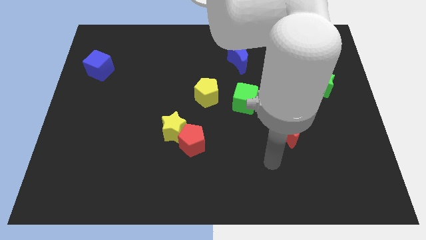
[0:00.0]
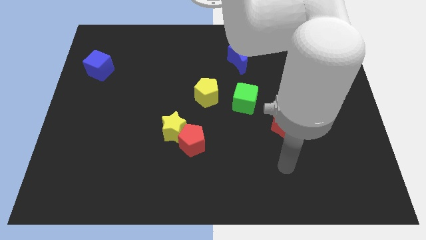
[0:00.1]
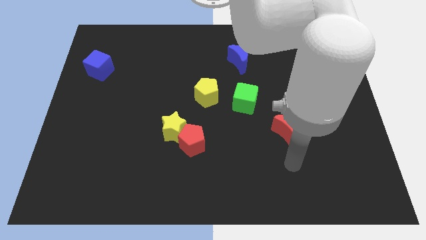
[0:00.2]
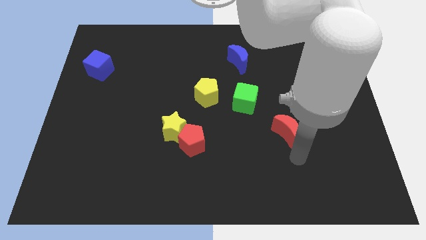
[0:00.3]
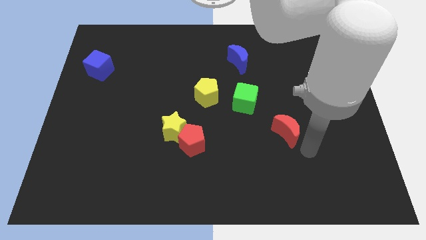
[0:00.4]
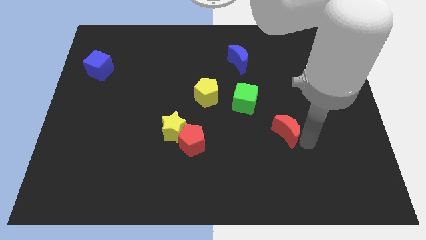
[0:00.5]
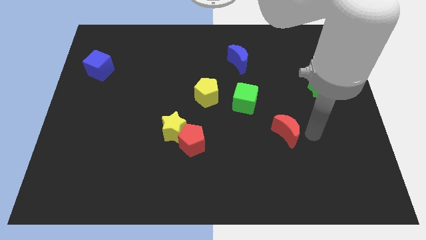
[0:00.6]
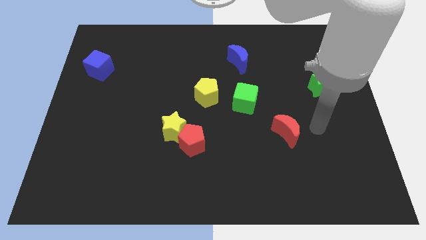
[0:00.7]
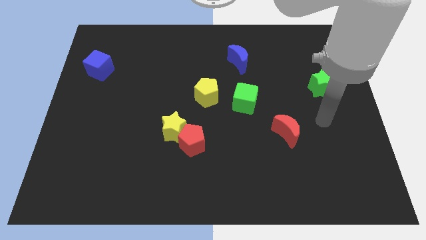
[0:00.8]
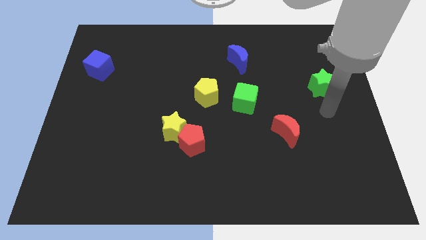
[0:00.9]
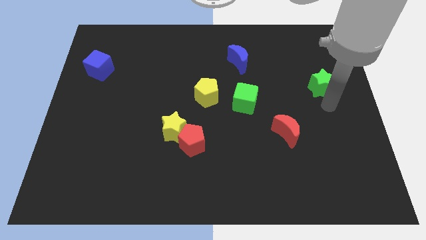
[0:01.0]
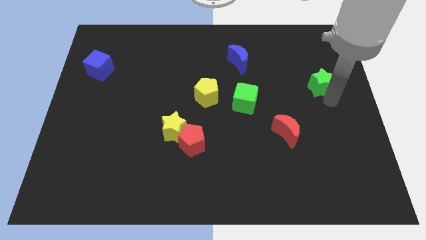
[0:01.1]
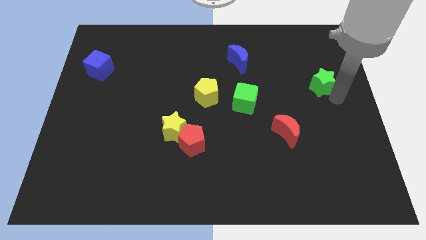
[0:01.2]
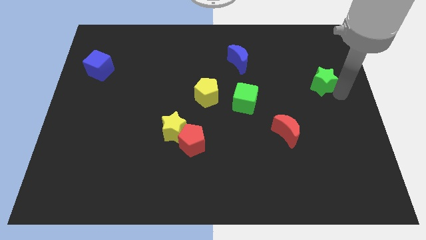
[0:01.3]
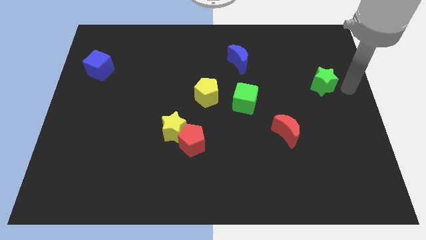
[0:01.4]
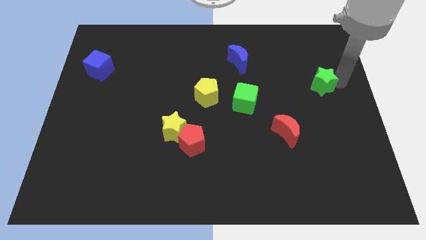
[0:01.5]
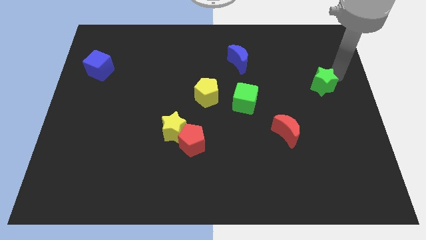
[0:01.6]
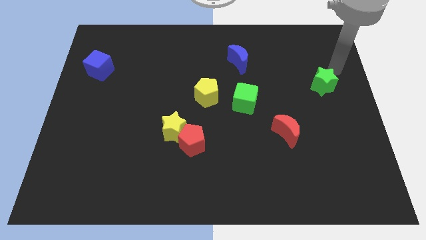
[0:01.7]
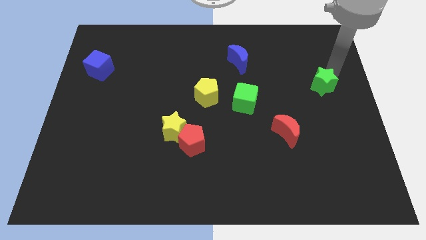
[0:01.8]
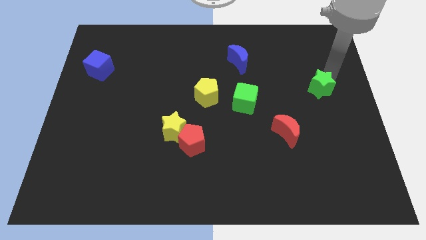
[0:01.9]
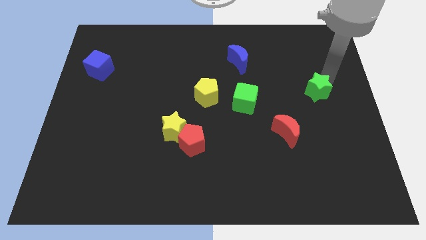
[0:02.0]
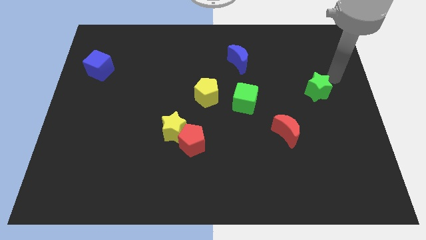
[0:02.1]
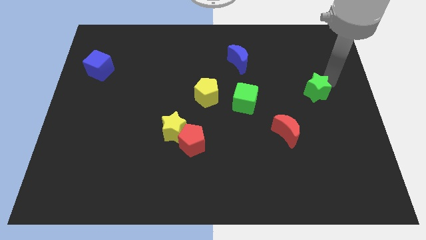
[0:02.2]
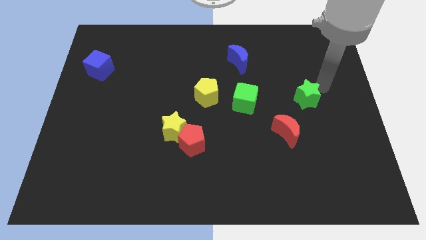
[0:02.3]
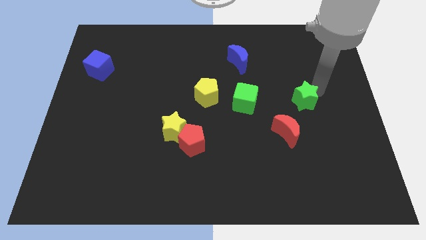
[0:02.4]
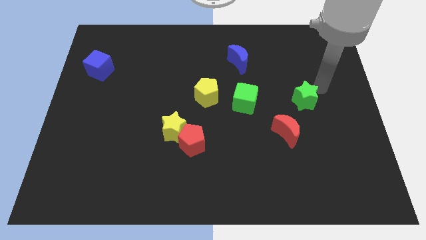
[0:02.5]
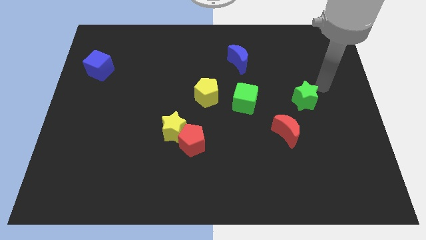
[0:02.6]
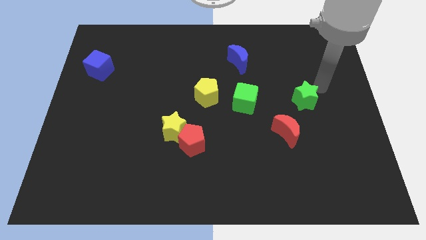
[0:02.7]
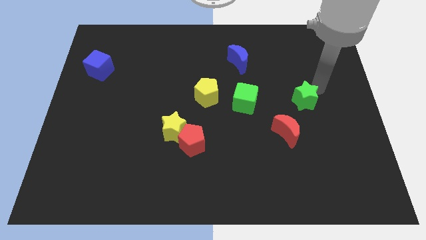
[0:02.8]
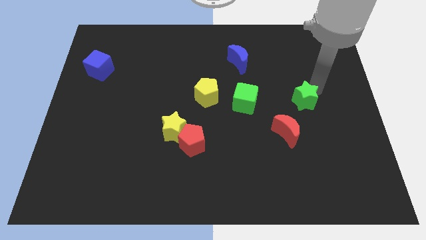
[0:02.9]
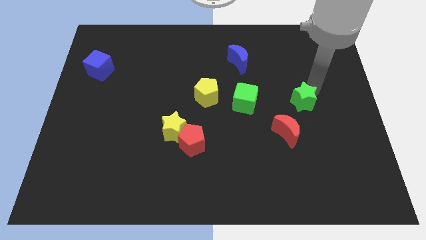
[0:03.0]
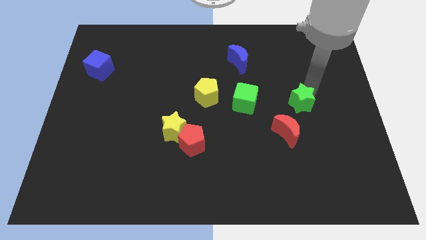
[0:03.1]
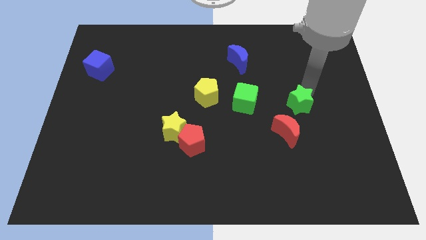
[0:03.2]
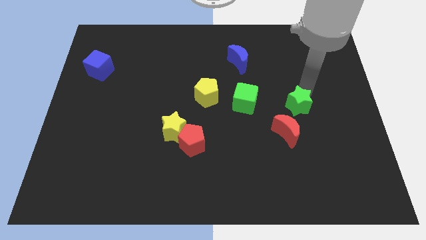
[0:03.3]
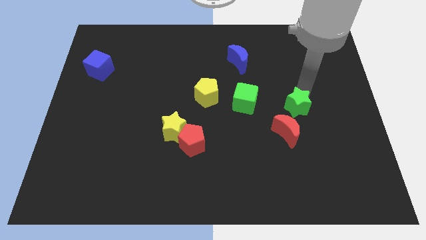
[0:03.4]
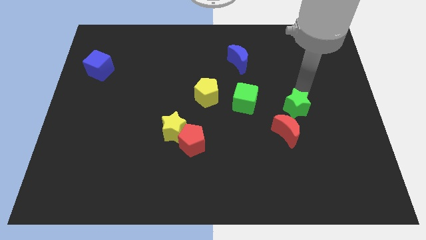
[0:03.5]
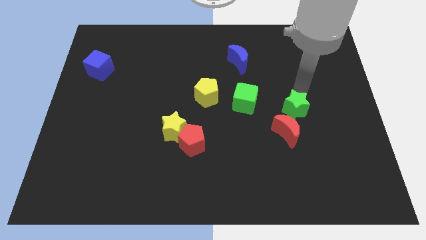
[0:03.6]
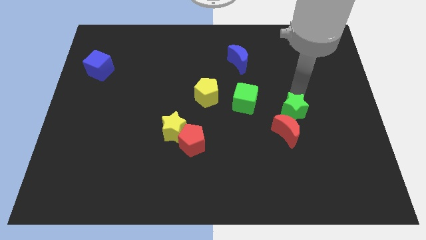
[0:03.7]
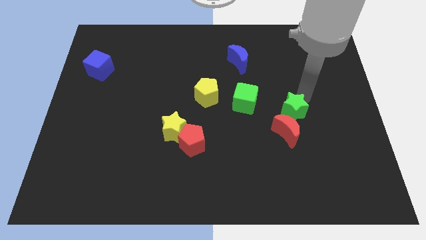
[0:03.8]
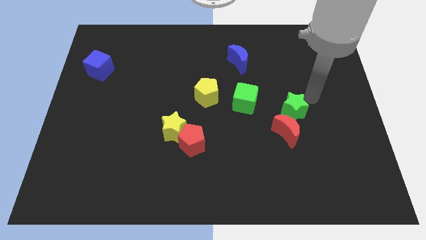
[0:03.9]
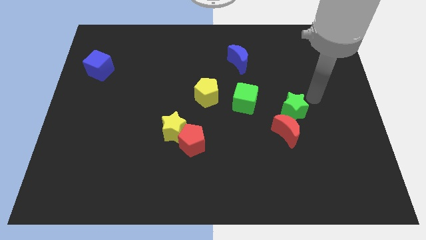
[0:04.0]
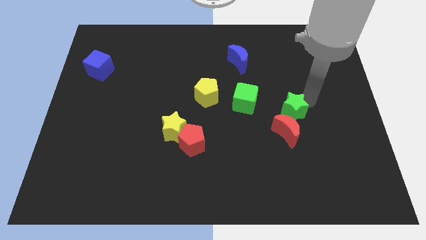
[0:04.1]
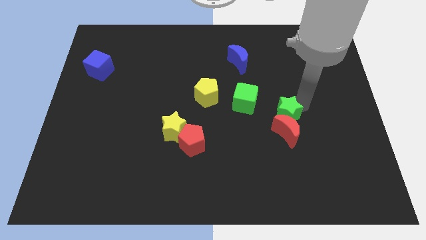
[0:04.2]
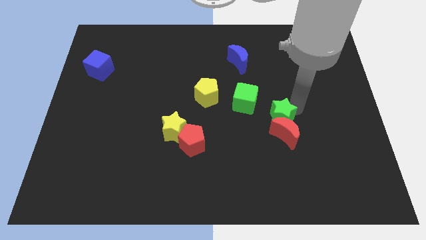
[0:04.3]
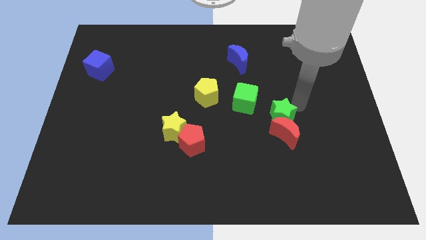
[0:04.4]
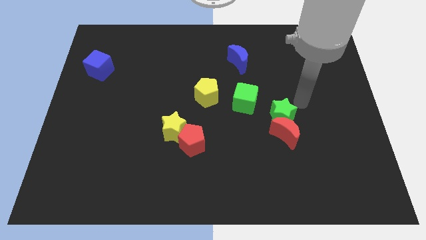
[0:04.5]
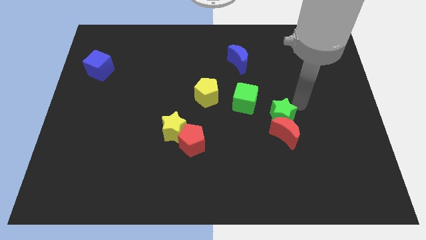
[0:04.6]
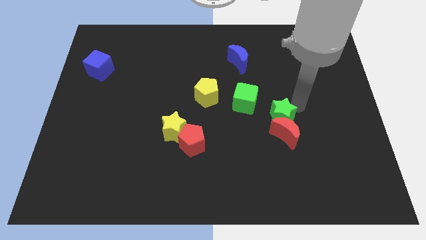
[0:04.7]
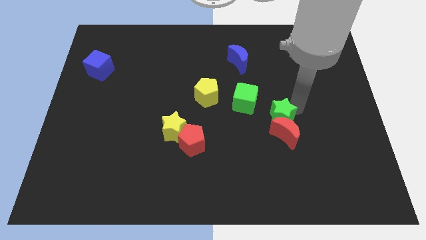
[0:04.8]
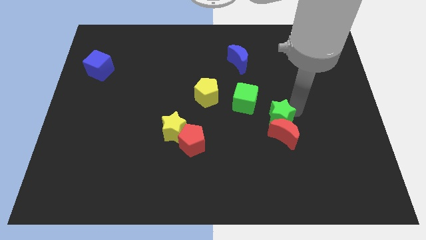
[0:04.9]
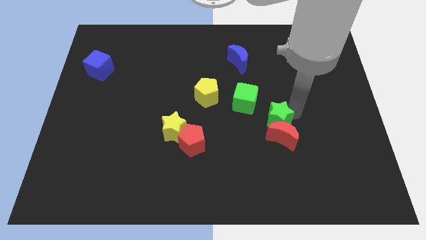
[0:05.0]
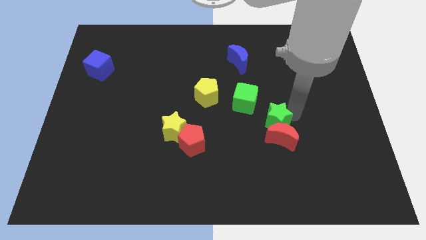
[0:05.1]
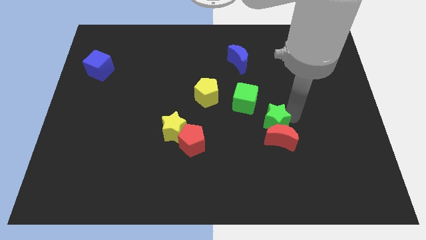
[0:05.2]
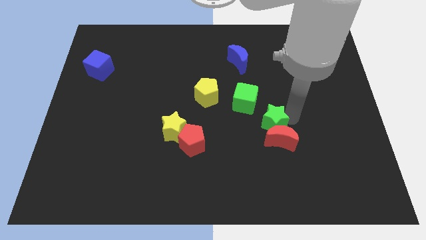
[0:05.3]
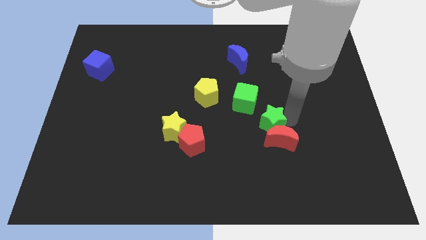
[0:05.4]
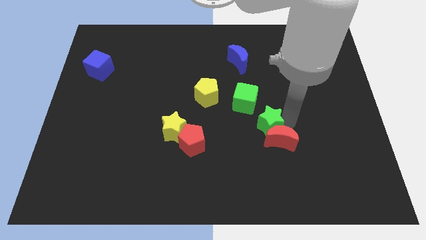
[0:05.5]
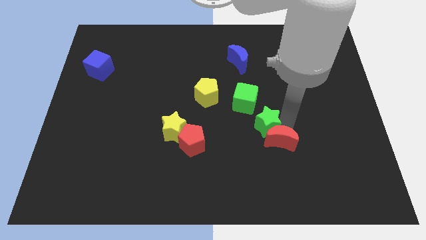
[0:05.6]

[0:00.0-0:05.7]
slide the green star to the bottom of the green cube

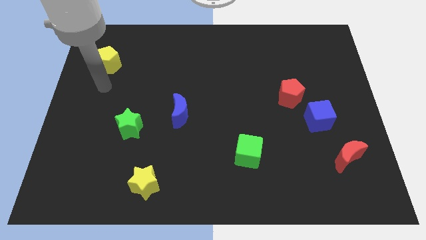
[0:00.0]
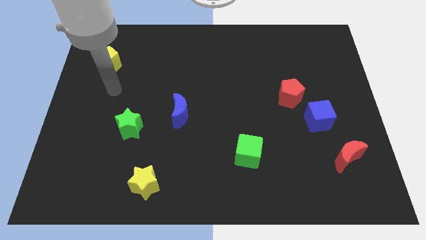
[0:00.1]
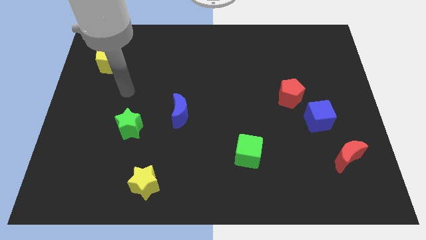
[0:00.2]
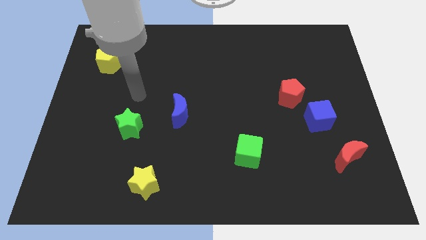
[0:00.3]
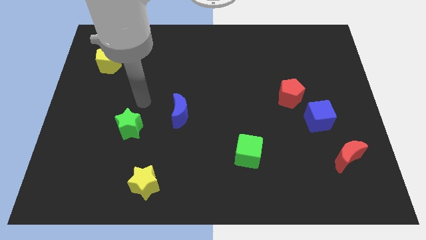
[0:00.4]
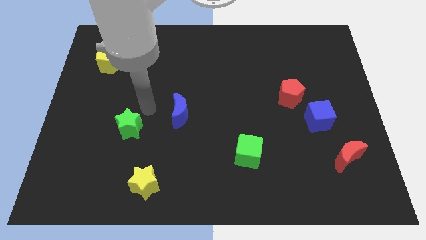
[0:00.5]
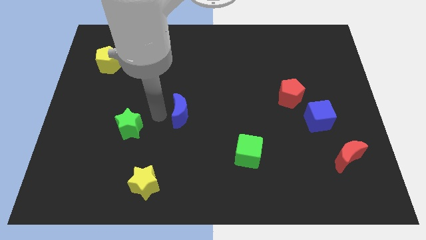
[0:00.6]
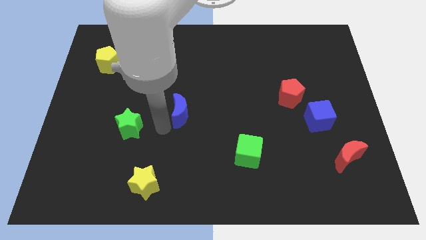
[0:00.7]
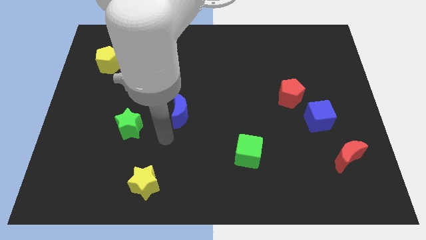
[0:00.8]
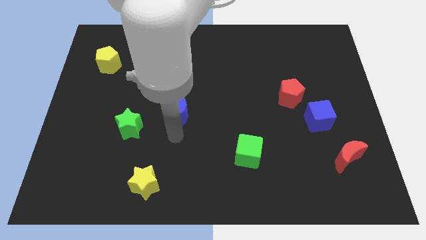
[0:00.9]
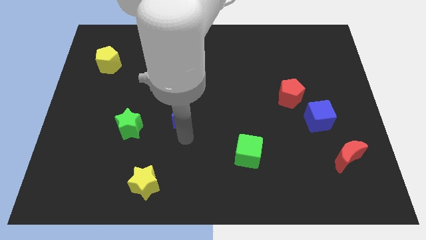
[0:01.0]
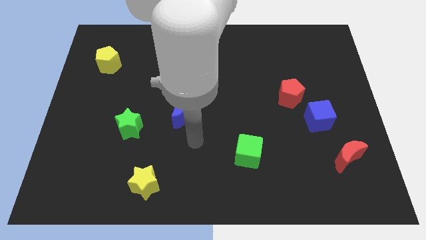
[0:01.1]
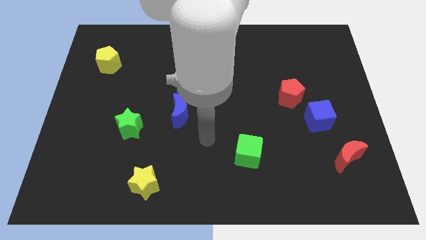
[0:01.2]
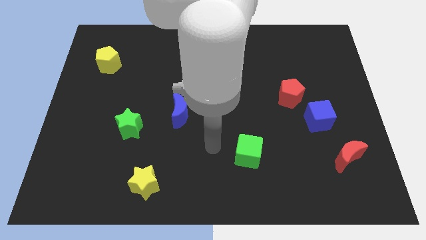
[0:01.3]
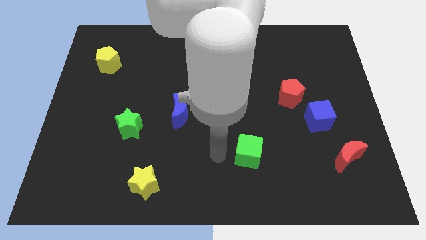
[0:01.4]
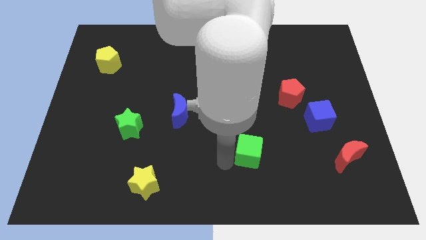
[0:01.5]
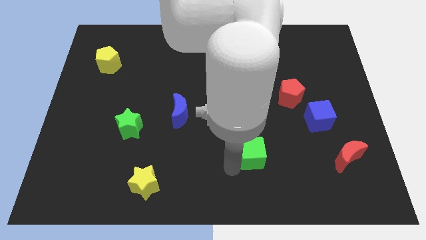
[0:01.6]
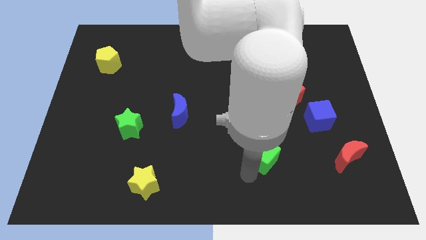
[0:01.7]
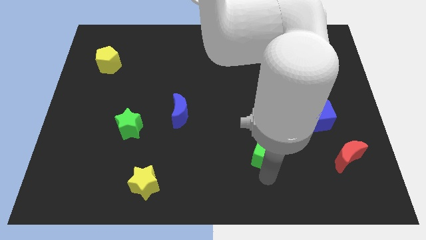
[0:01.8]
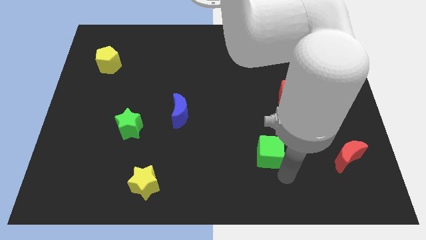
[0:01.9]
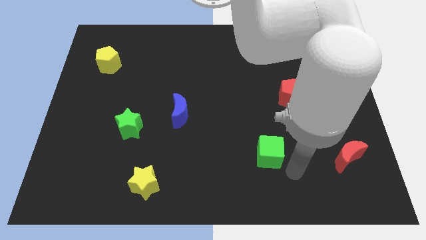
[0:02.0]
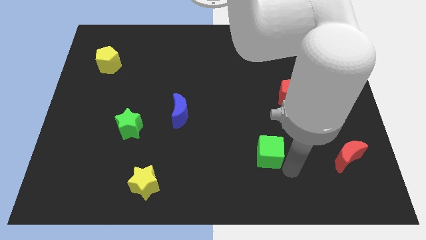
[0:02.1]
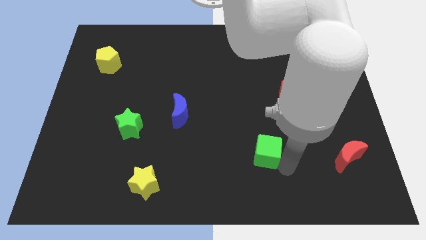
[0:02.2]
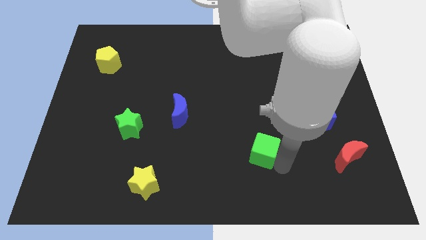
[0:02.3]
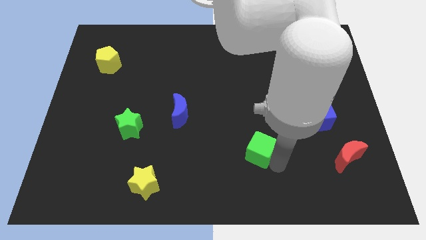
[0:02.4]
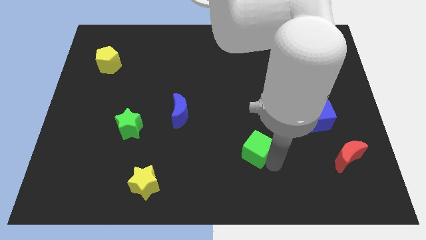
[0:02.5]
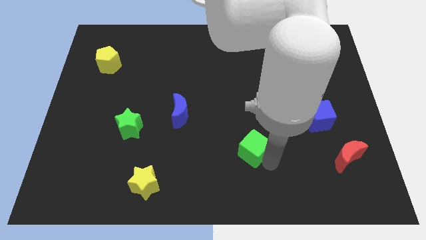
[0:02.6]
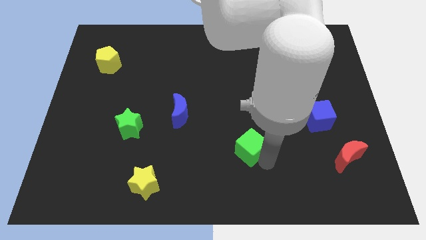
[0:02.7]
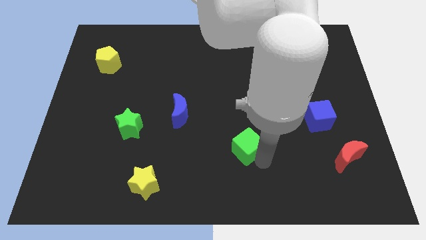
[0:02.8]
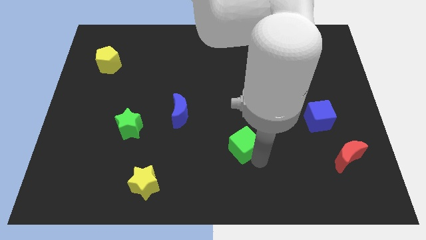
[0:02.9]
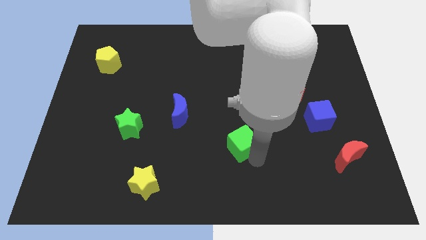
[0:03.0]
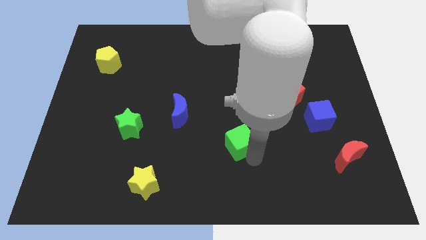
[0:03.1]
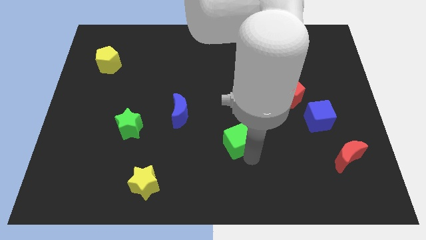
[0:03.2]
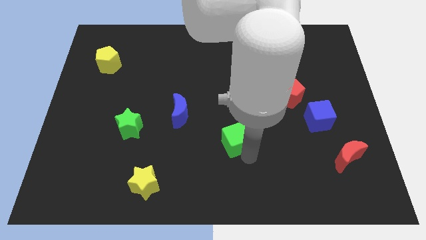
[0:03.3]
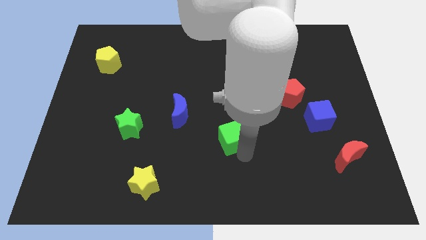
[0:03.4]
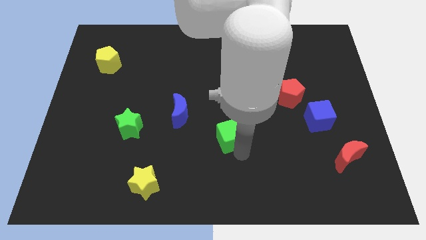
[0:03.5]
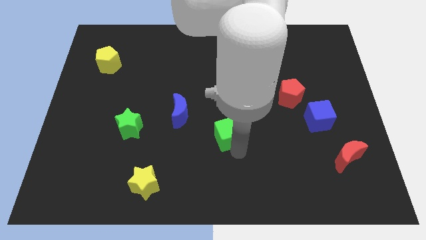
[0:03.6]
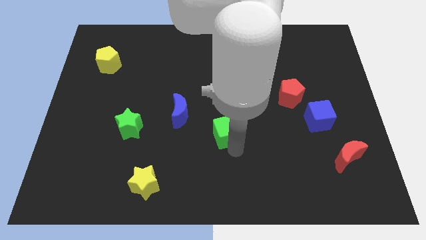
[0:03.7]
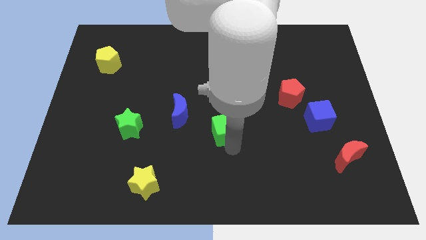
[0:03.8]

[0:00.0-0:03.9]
move the green cube right of the blue moon
